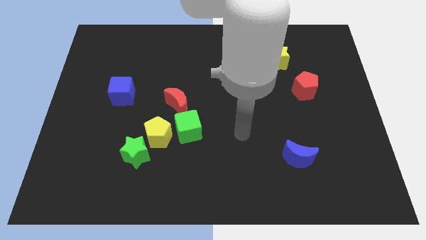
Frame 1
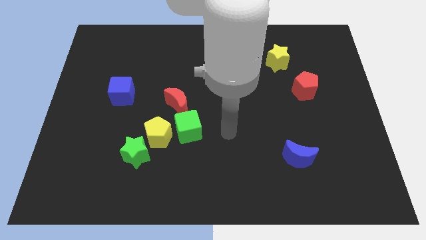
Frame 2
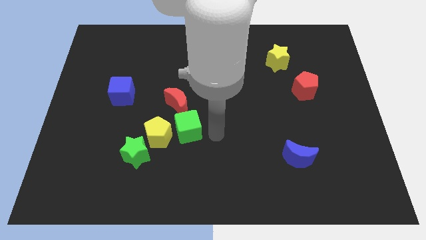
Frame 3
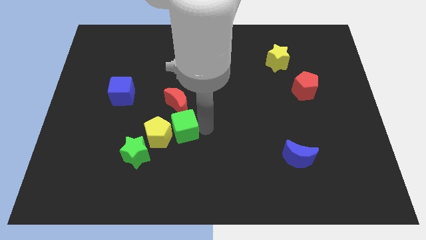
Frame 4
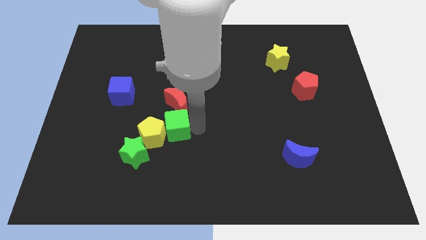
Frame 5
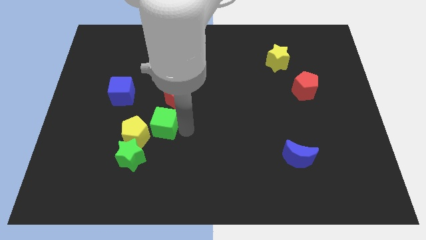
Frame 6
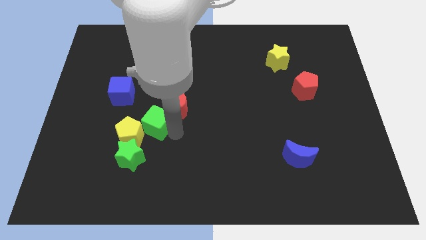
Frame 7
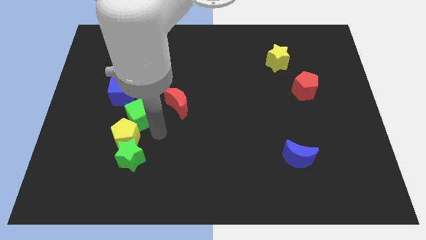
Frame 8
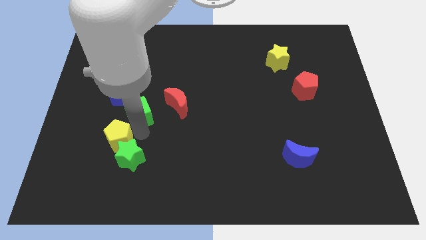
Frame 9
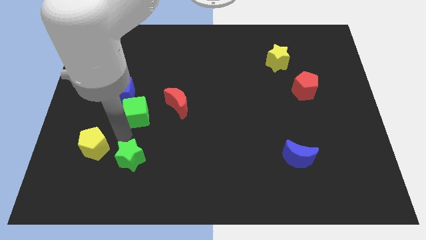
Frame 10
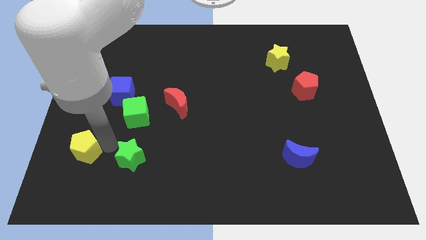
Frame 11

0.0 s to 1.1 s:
pull the green star apart from the yellow pentagon

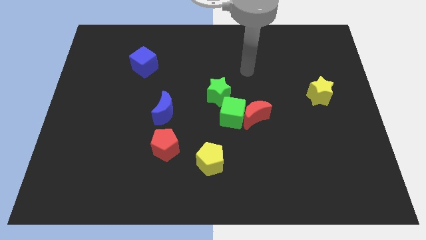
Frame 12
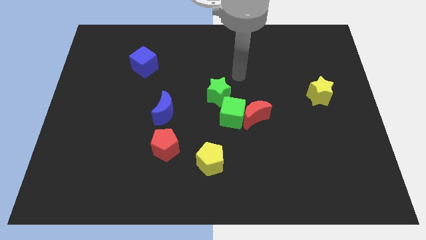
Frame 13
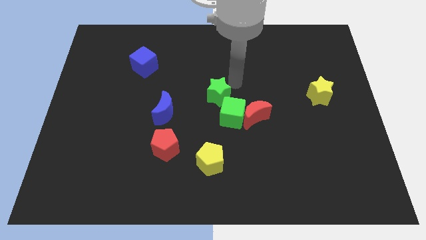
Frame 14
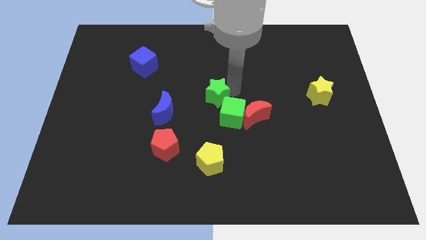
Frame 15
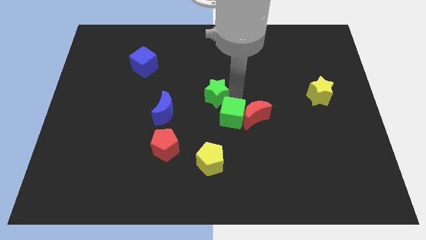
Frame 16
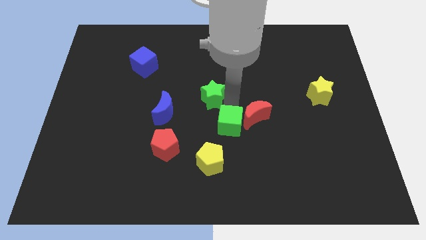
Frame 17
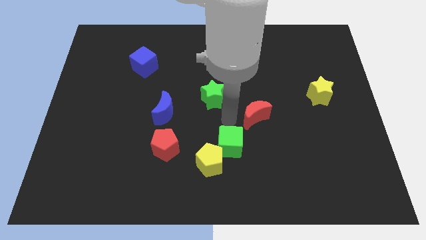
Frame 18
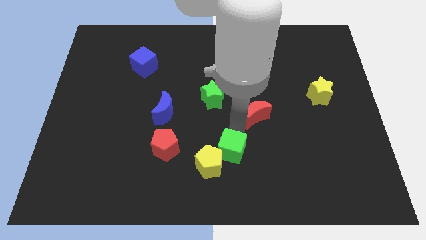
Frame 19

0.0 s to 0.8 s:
separate the red moon from the green cube

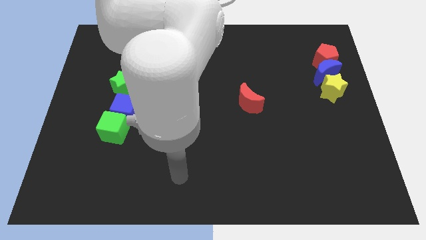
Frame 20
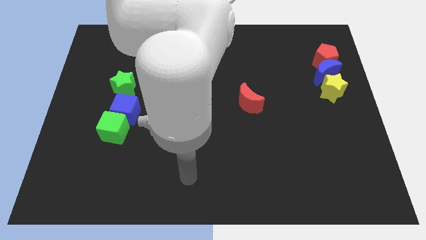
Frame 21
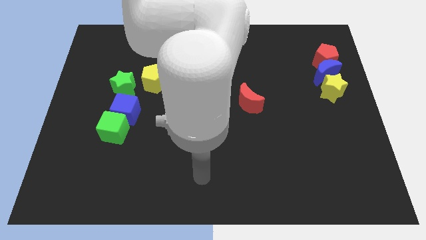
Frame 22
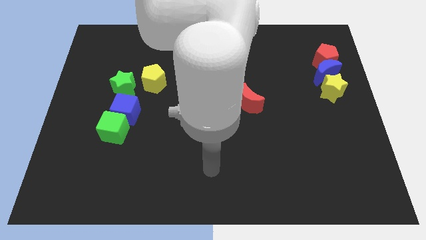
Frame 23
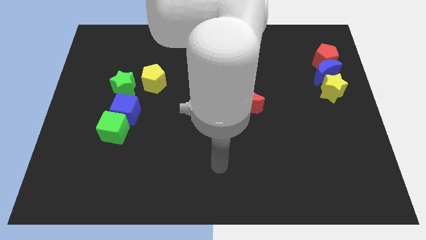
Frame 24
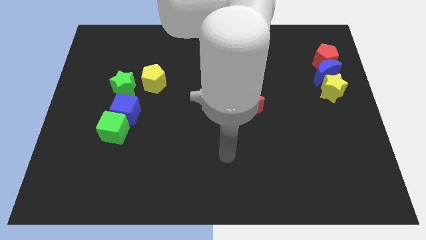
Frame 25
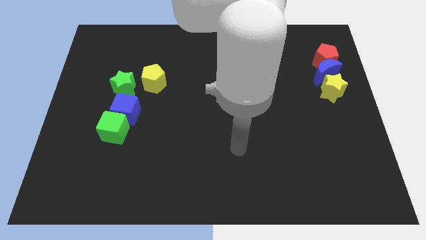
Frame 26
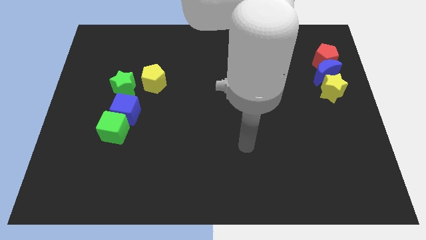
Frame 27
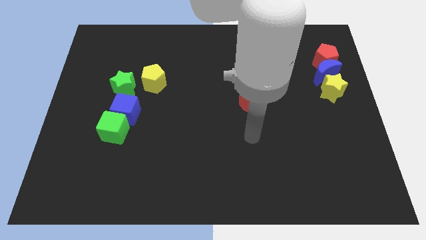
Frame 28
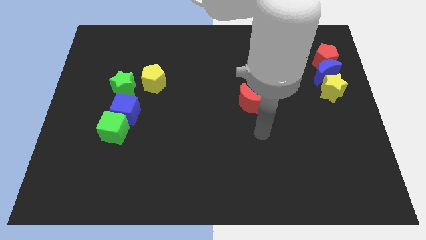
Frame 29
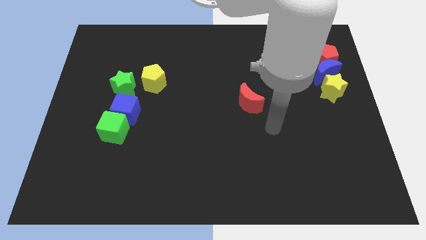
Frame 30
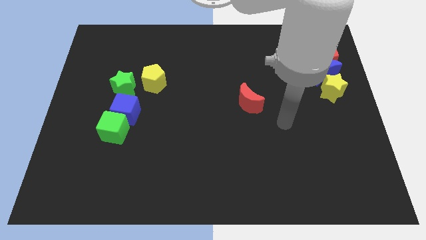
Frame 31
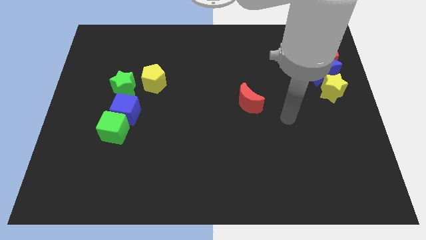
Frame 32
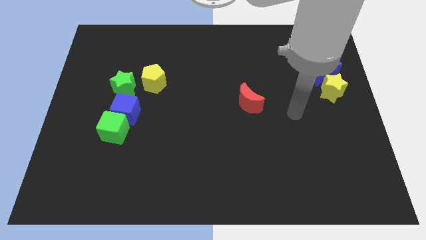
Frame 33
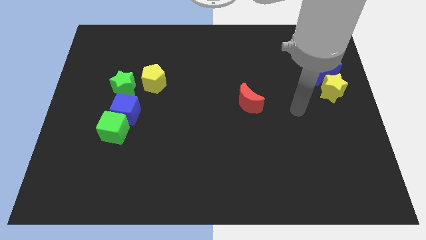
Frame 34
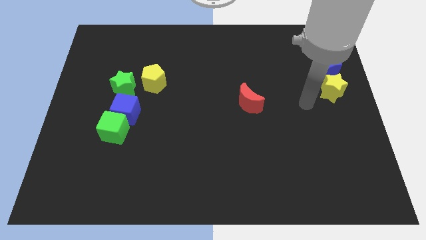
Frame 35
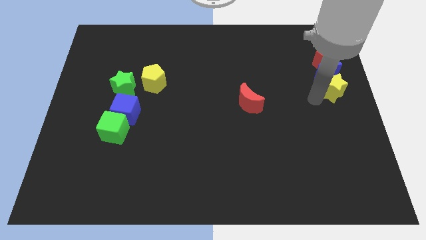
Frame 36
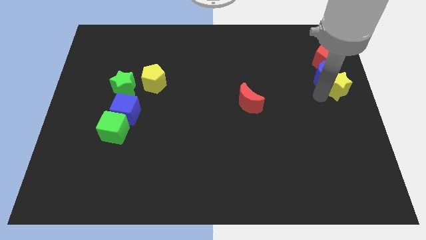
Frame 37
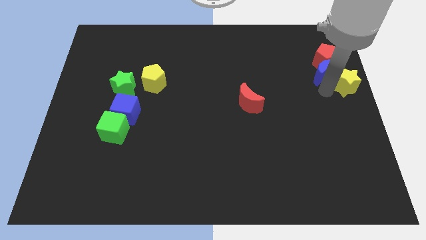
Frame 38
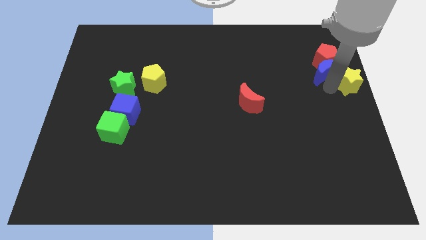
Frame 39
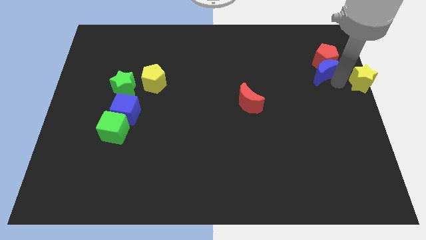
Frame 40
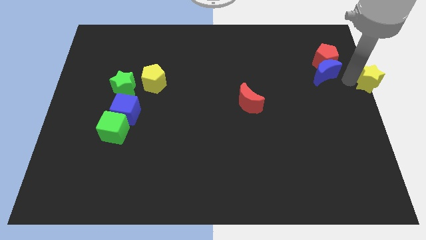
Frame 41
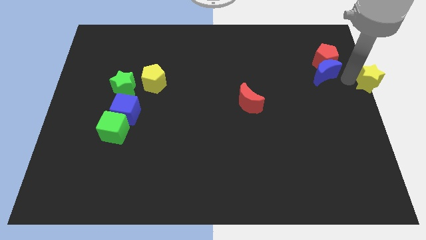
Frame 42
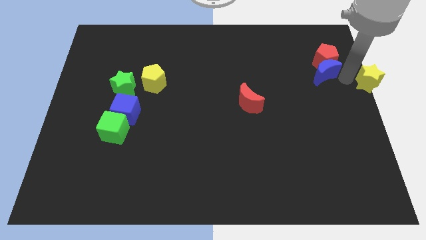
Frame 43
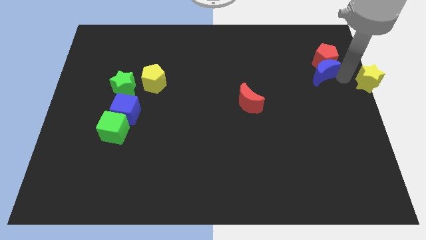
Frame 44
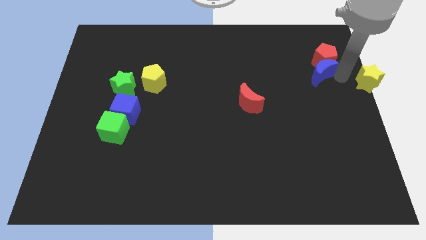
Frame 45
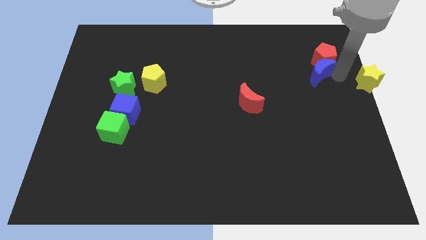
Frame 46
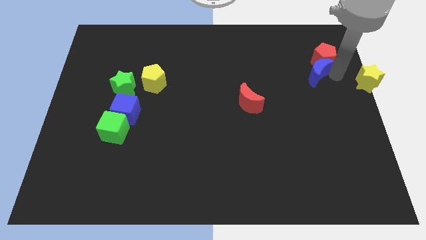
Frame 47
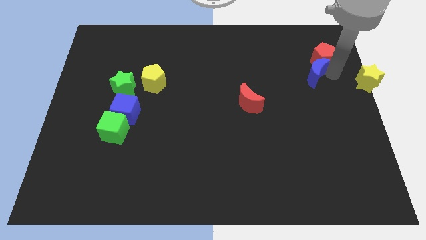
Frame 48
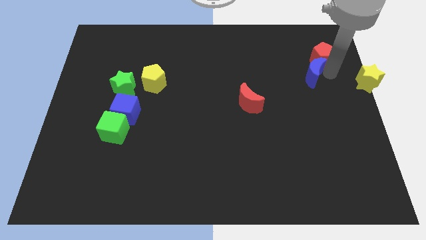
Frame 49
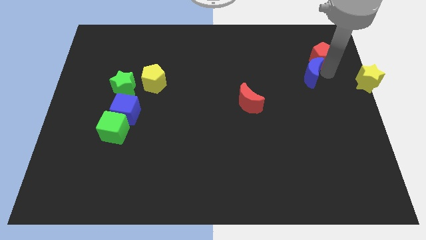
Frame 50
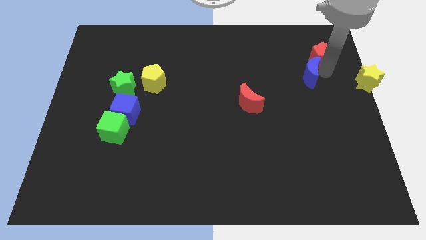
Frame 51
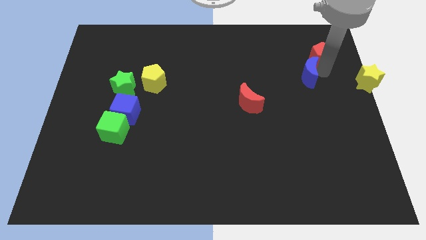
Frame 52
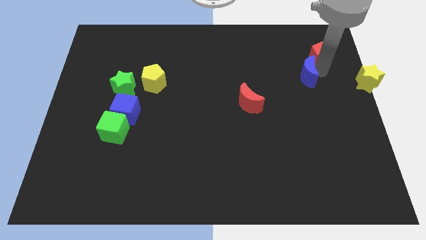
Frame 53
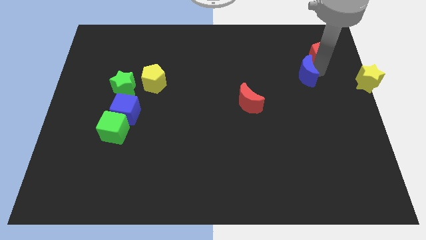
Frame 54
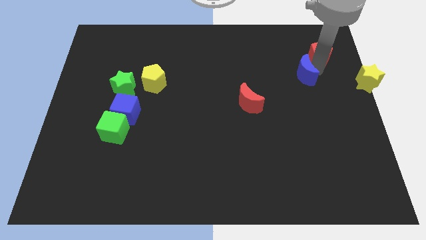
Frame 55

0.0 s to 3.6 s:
separate the blue moon from the red pentagon and yellow star

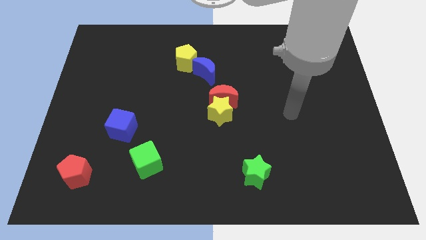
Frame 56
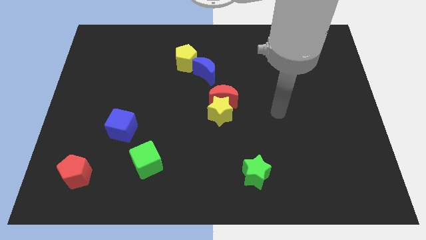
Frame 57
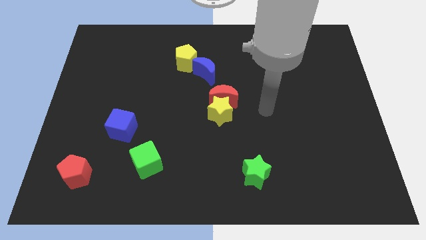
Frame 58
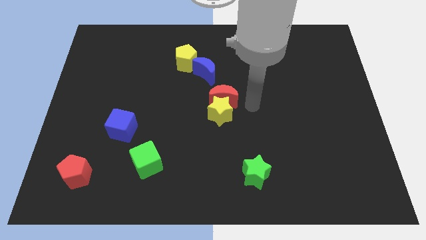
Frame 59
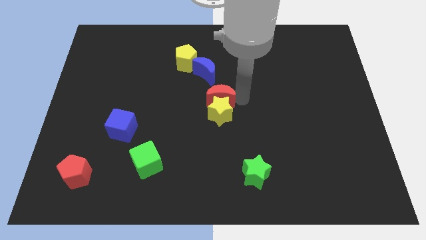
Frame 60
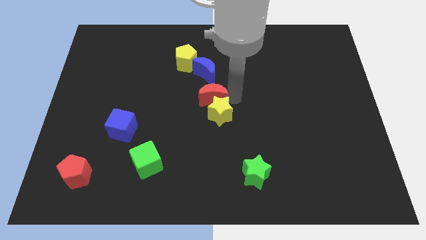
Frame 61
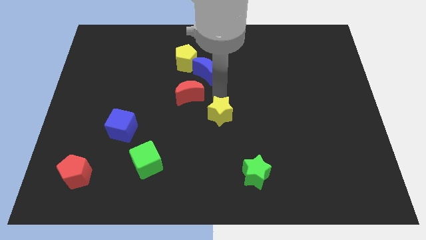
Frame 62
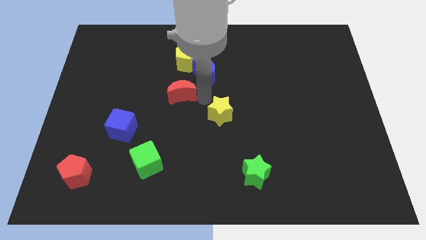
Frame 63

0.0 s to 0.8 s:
move the yellow star away from the red moon

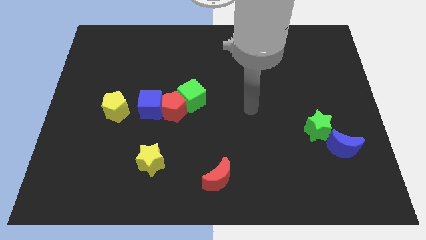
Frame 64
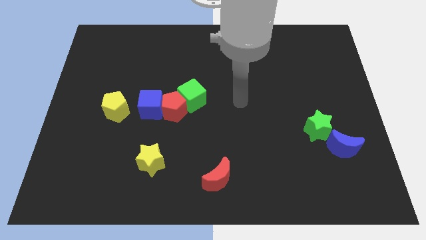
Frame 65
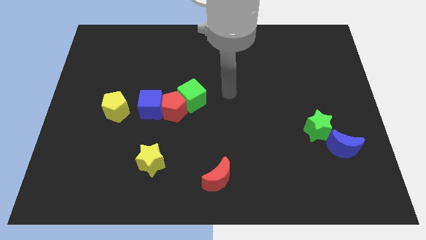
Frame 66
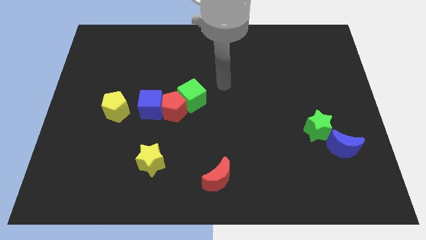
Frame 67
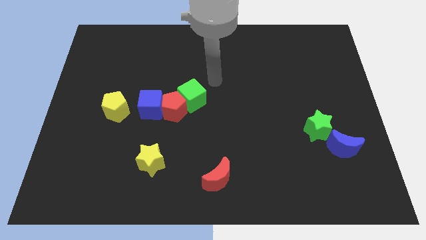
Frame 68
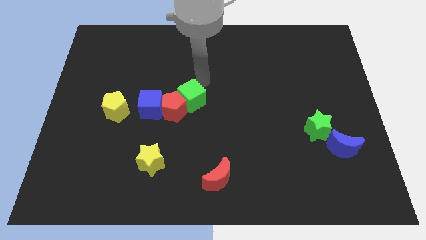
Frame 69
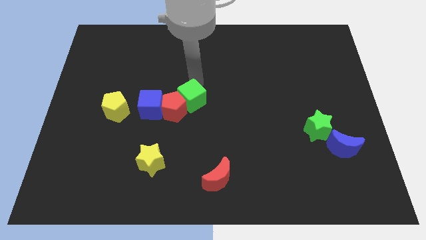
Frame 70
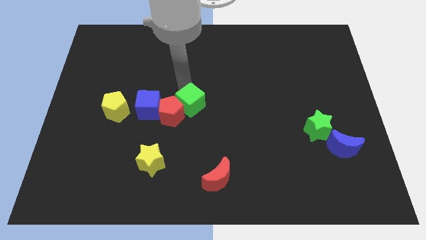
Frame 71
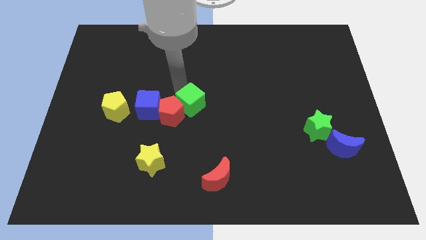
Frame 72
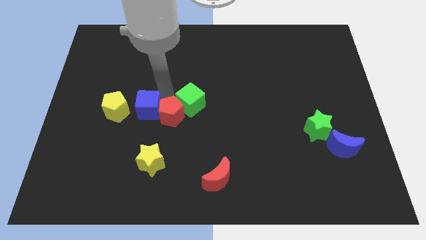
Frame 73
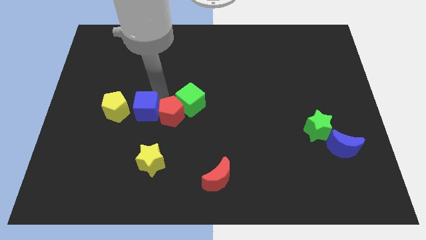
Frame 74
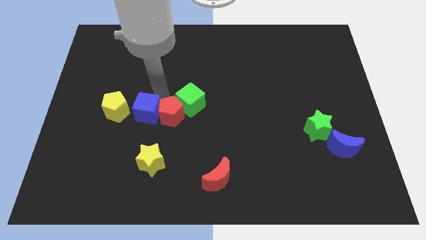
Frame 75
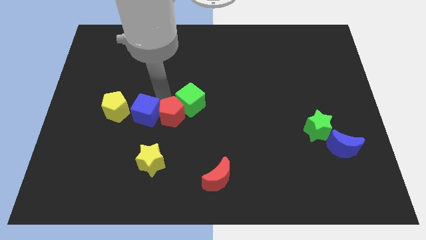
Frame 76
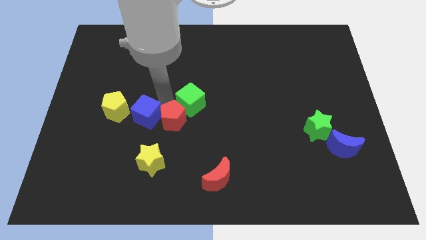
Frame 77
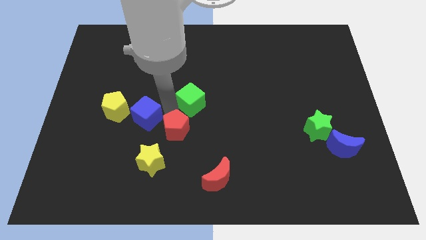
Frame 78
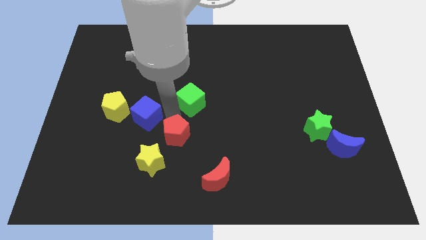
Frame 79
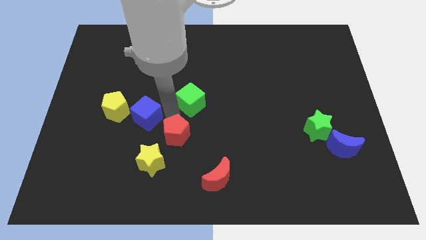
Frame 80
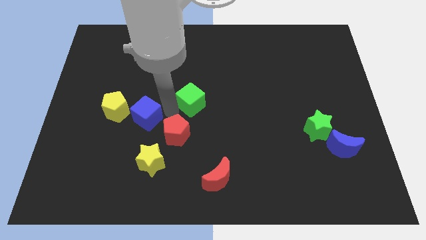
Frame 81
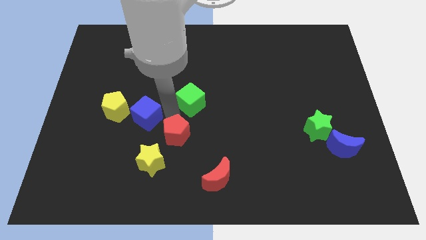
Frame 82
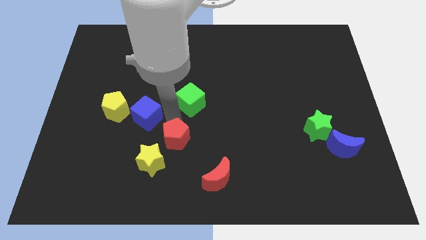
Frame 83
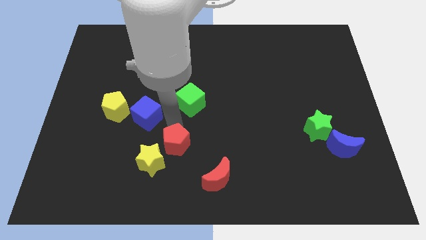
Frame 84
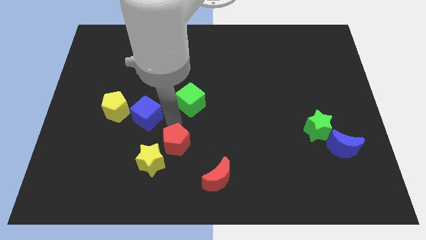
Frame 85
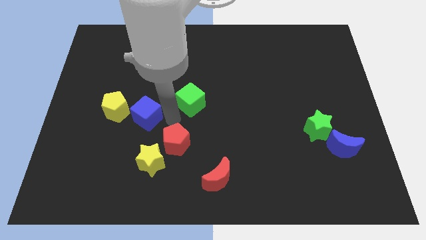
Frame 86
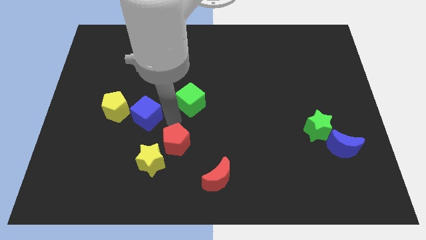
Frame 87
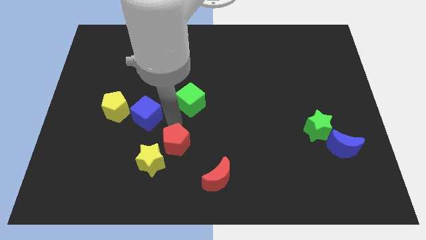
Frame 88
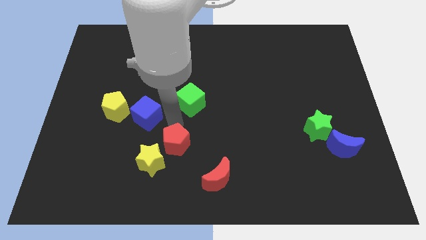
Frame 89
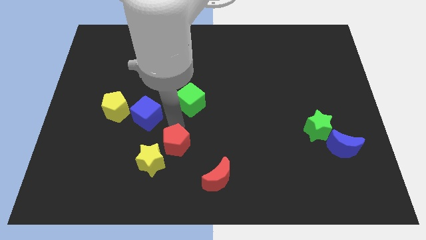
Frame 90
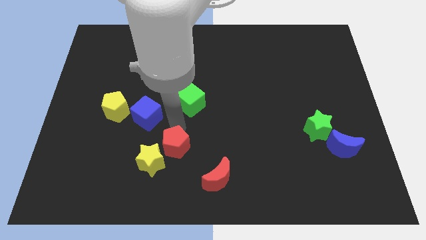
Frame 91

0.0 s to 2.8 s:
pull the red pentagon apart from the green cube and blue cube

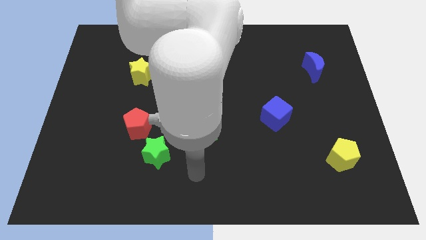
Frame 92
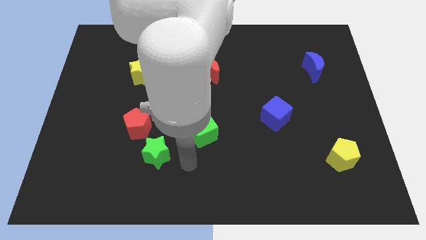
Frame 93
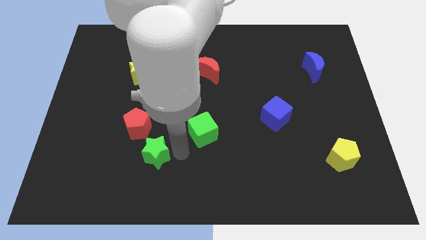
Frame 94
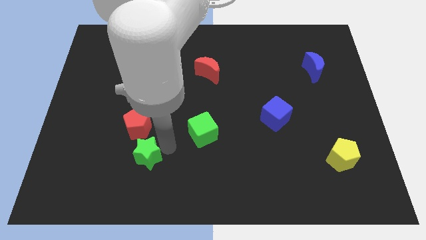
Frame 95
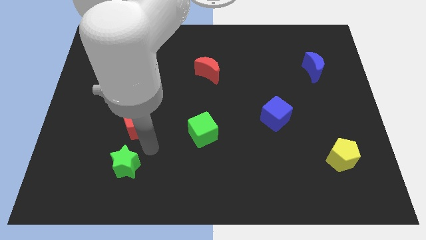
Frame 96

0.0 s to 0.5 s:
move the red pentagon away from the green star
